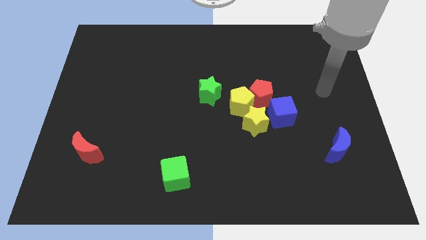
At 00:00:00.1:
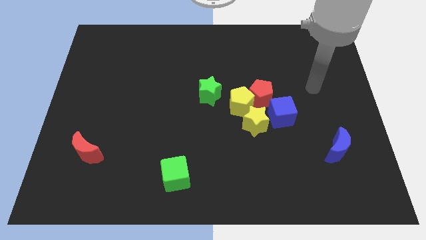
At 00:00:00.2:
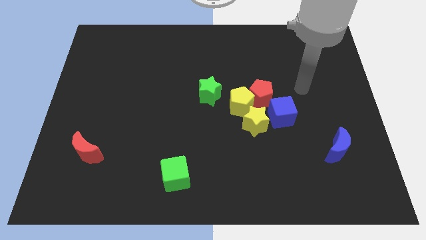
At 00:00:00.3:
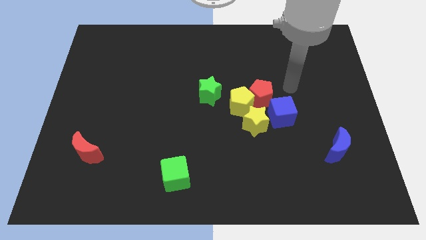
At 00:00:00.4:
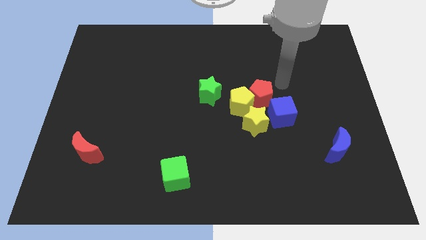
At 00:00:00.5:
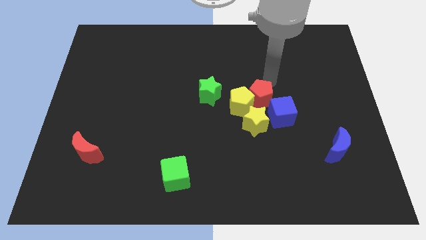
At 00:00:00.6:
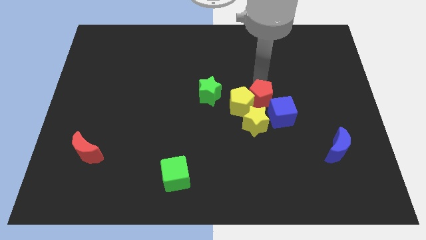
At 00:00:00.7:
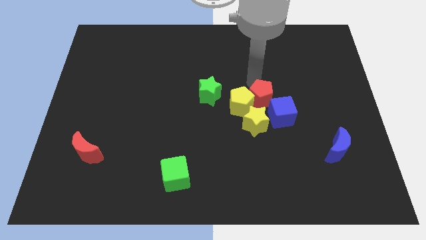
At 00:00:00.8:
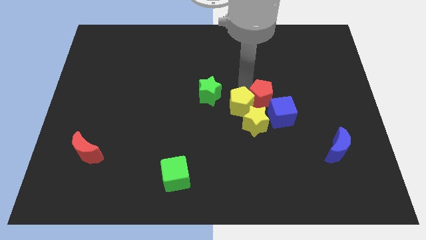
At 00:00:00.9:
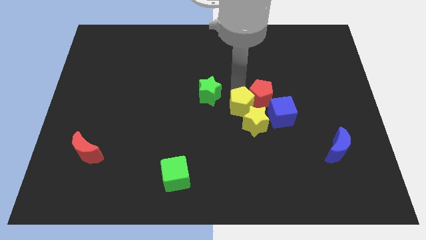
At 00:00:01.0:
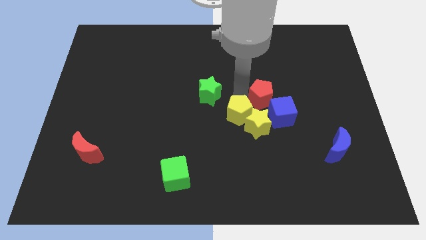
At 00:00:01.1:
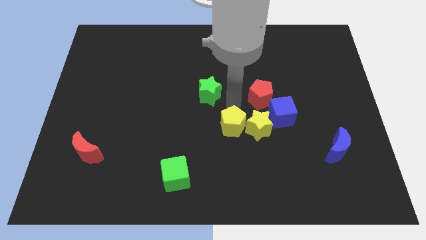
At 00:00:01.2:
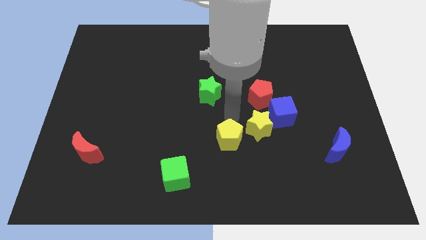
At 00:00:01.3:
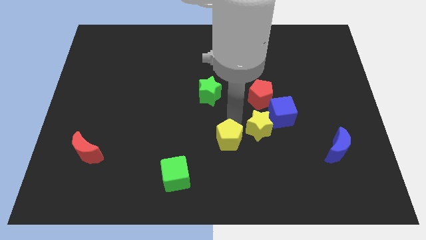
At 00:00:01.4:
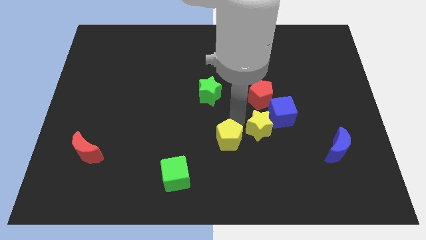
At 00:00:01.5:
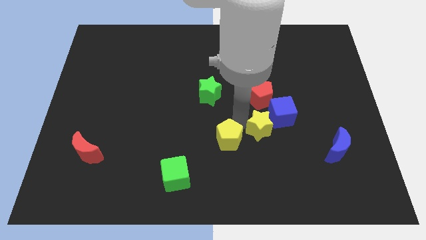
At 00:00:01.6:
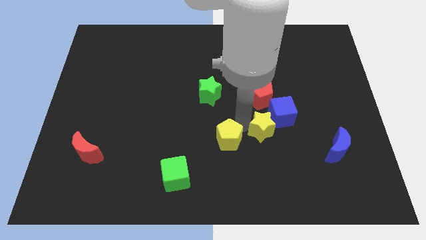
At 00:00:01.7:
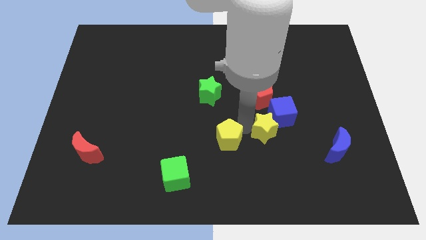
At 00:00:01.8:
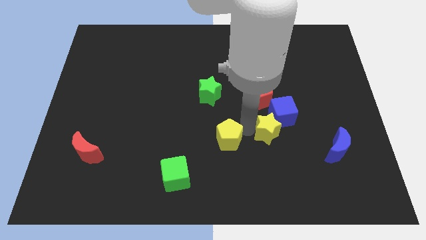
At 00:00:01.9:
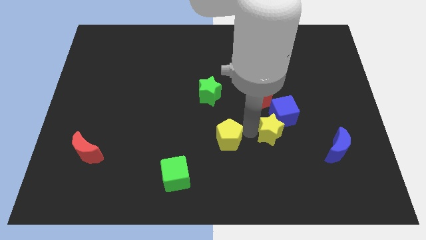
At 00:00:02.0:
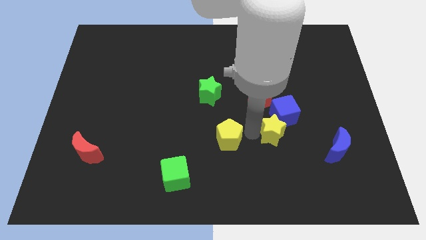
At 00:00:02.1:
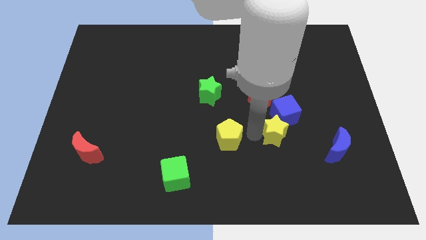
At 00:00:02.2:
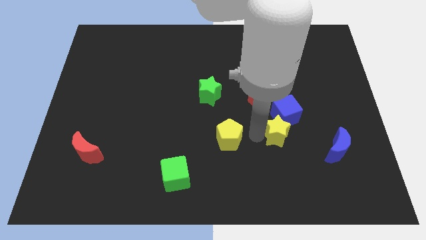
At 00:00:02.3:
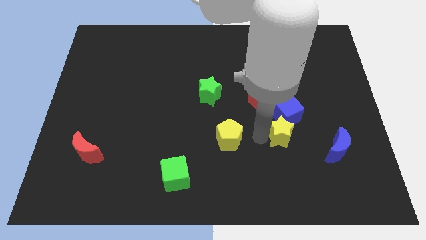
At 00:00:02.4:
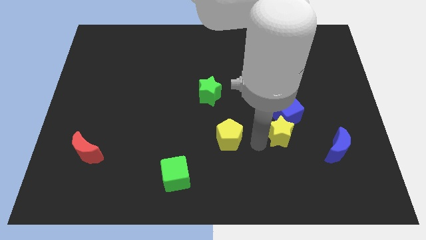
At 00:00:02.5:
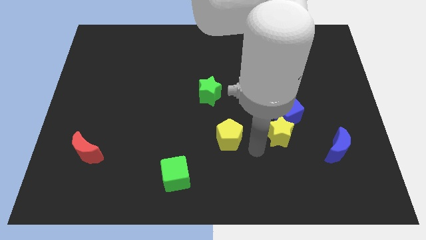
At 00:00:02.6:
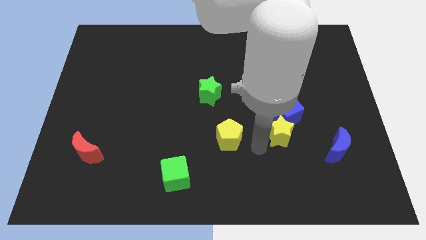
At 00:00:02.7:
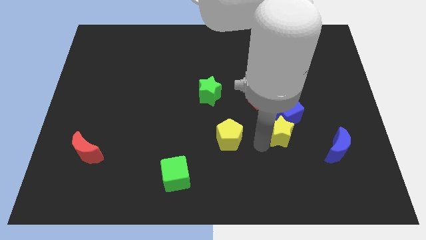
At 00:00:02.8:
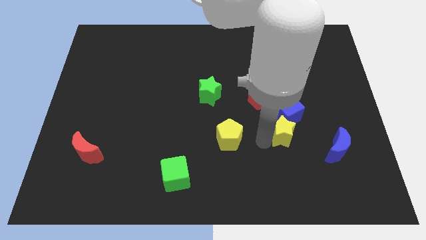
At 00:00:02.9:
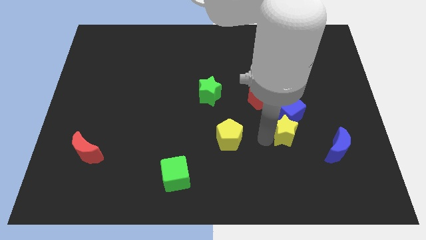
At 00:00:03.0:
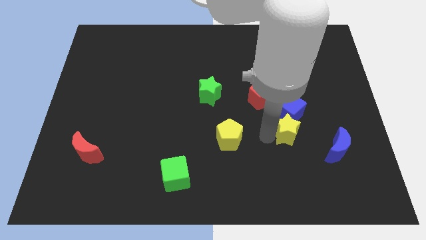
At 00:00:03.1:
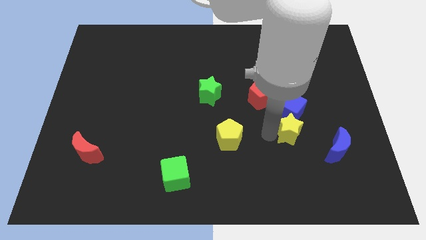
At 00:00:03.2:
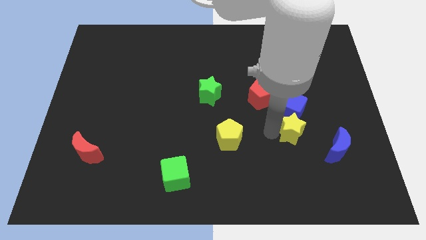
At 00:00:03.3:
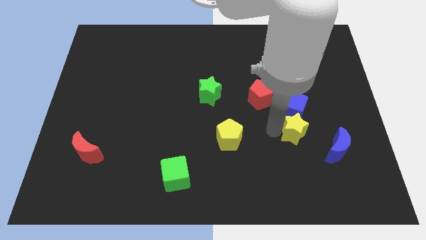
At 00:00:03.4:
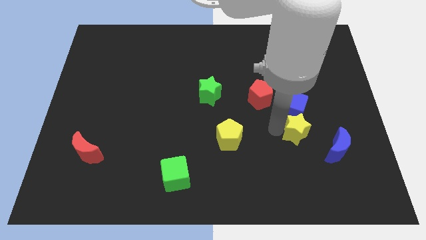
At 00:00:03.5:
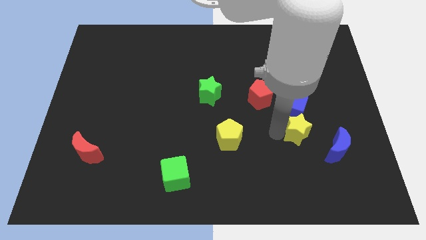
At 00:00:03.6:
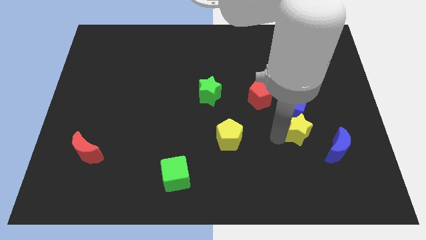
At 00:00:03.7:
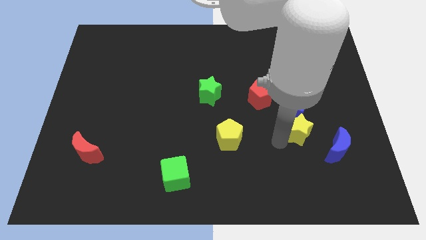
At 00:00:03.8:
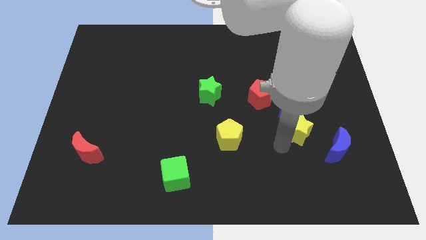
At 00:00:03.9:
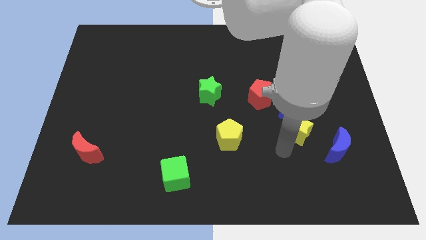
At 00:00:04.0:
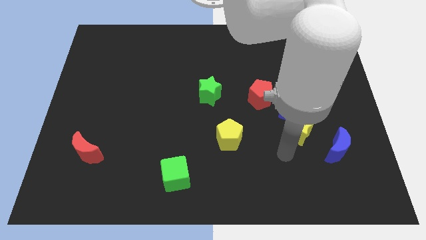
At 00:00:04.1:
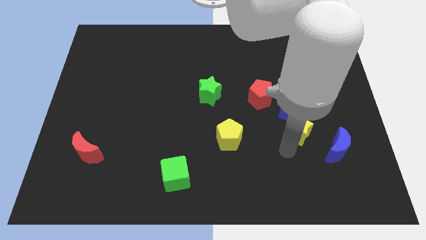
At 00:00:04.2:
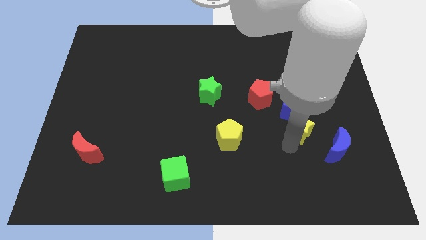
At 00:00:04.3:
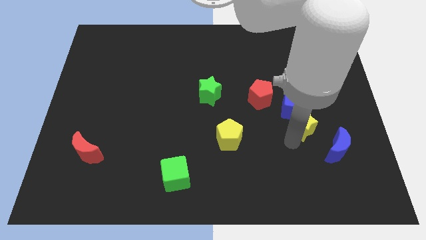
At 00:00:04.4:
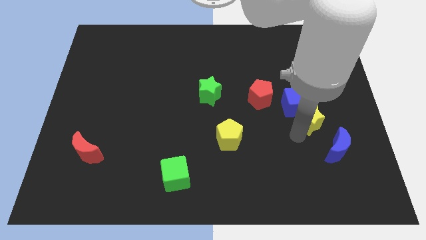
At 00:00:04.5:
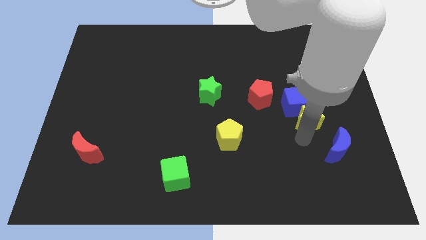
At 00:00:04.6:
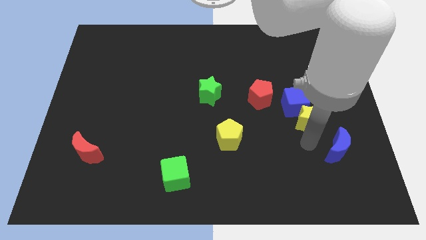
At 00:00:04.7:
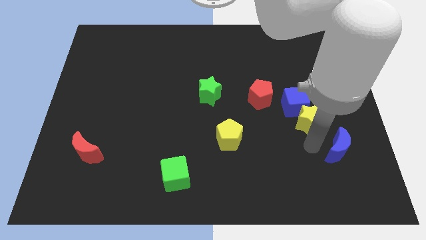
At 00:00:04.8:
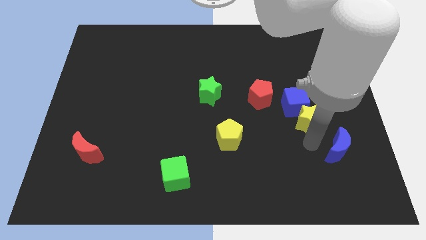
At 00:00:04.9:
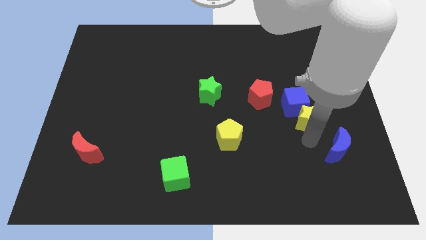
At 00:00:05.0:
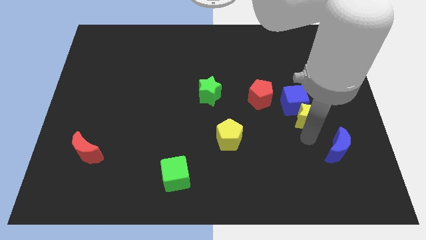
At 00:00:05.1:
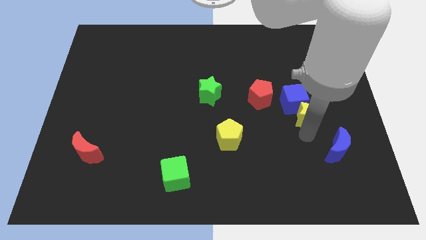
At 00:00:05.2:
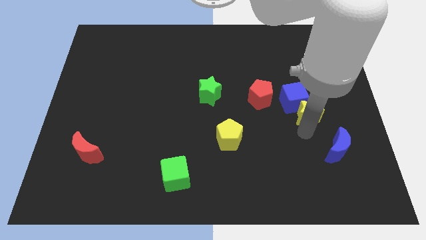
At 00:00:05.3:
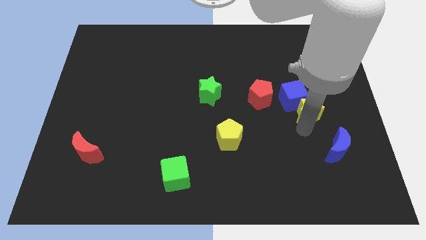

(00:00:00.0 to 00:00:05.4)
push the yellow star just right of the red pentagon

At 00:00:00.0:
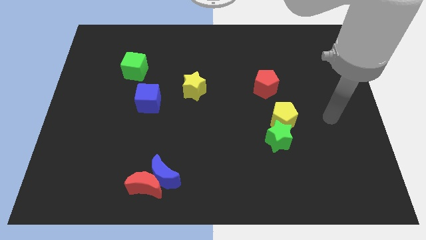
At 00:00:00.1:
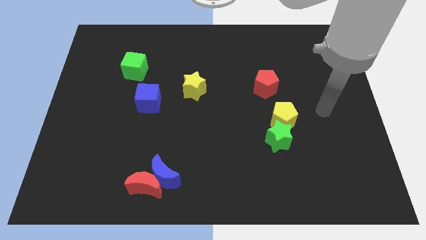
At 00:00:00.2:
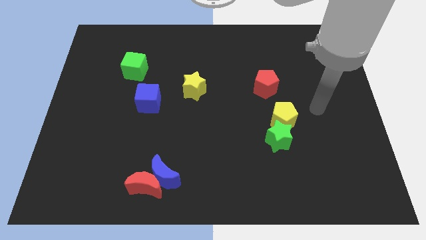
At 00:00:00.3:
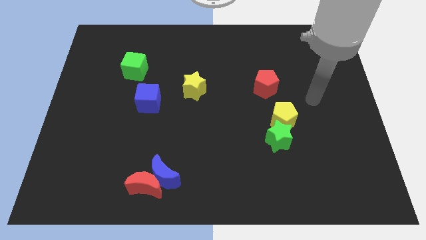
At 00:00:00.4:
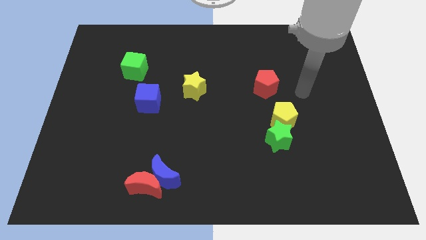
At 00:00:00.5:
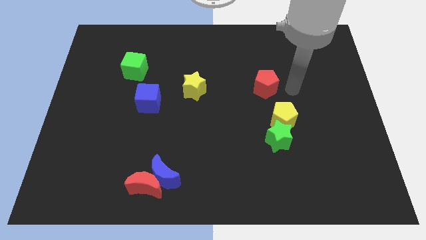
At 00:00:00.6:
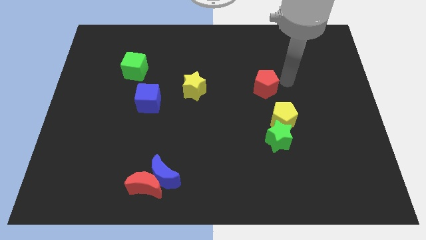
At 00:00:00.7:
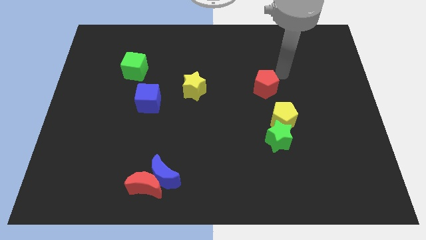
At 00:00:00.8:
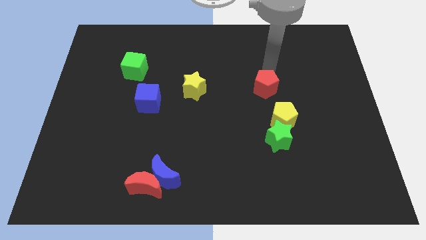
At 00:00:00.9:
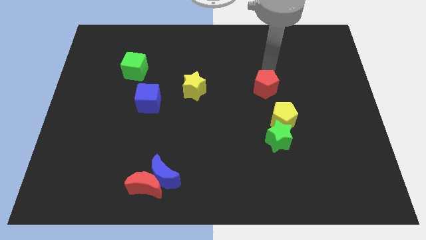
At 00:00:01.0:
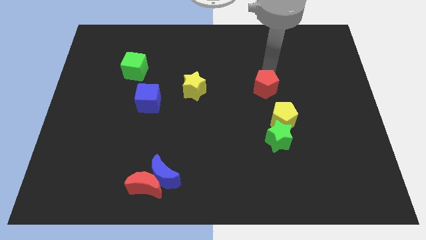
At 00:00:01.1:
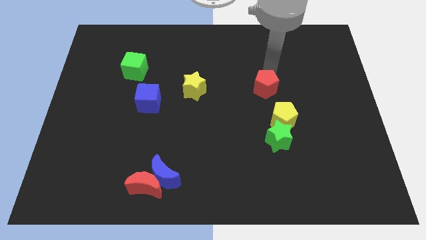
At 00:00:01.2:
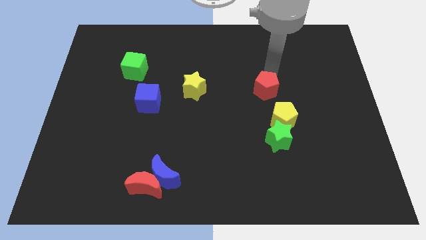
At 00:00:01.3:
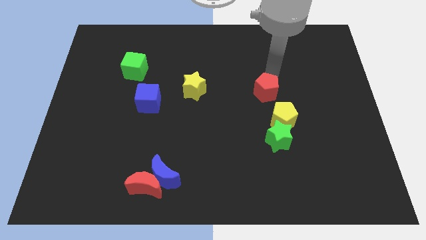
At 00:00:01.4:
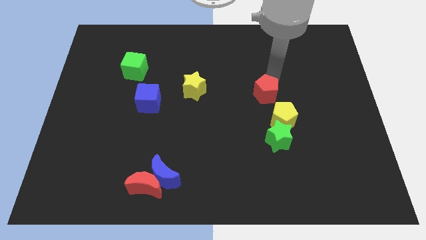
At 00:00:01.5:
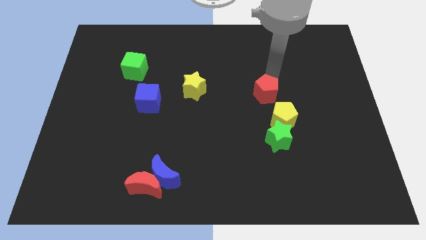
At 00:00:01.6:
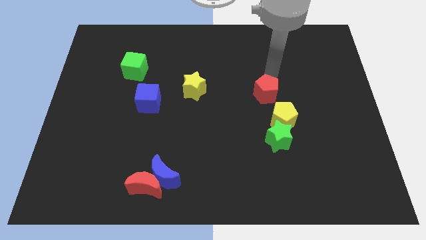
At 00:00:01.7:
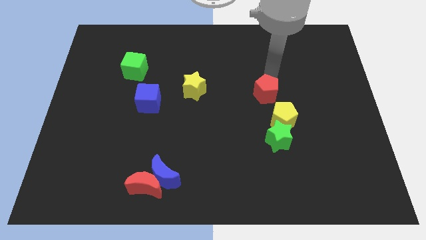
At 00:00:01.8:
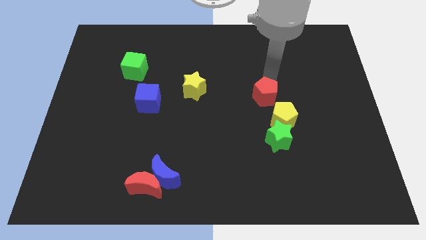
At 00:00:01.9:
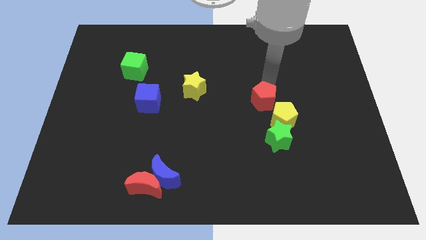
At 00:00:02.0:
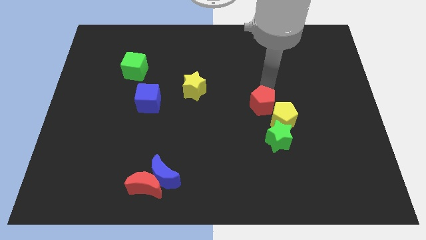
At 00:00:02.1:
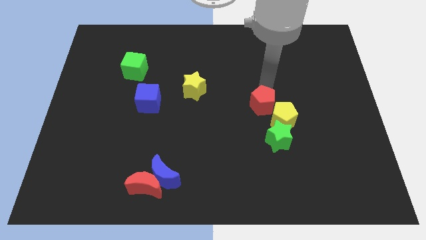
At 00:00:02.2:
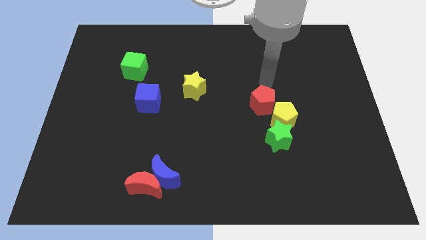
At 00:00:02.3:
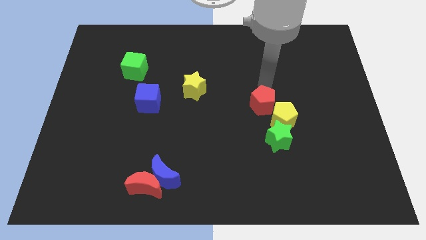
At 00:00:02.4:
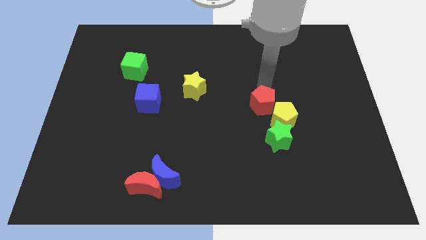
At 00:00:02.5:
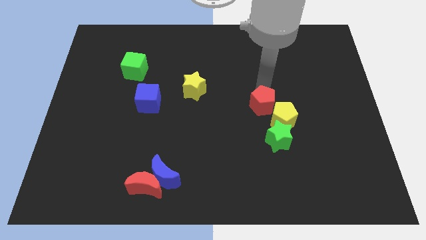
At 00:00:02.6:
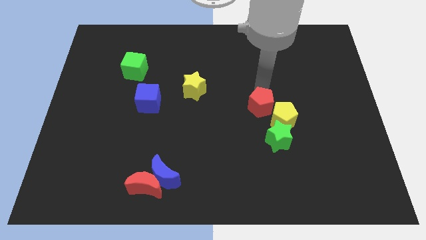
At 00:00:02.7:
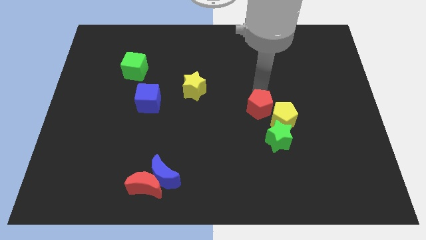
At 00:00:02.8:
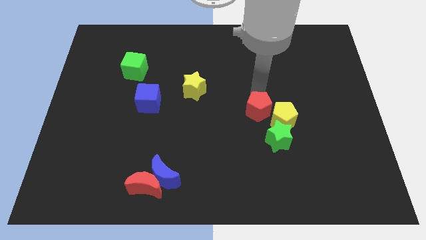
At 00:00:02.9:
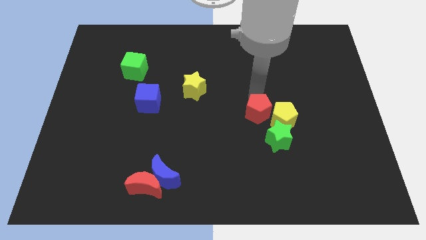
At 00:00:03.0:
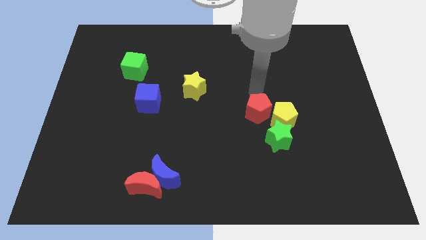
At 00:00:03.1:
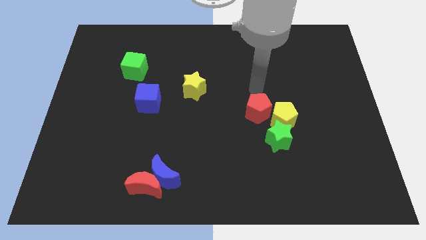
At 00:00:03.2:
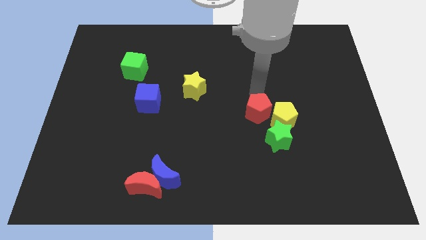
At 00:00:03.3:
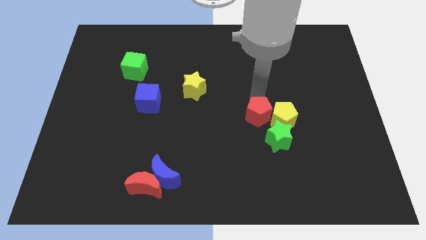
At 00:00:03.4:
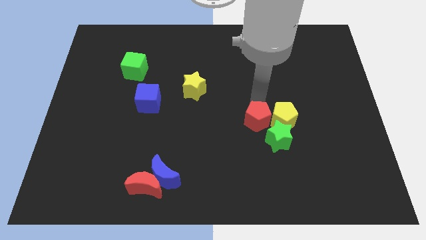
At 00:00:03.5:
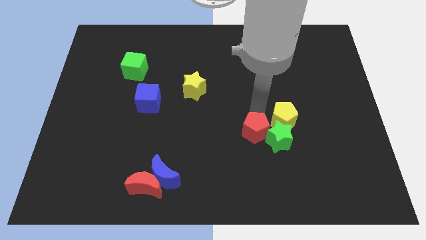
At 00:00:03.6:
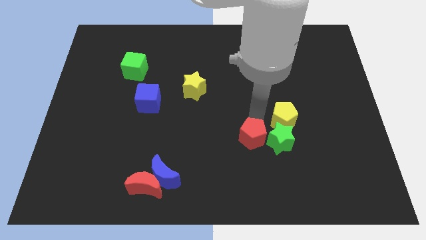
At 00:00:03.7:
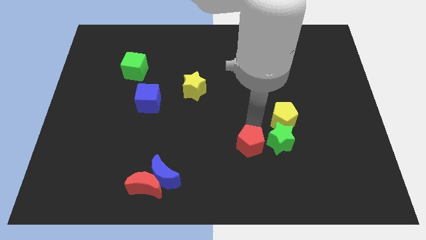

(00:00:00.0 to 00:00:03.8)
put the red pentagon to the bottom left of the green star
